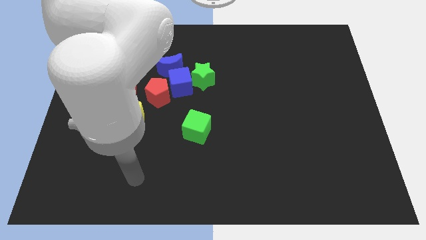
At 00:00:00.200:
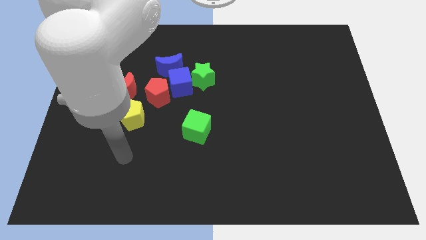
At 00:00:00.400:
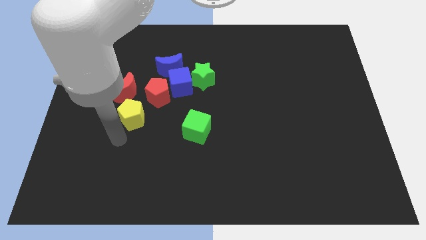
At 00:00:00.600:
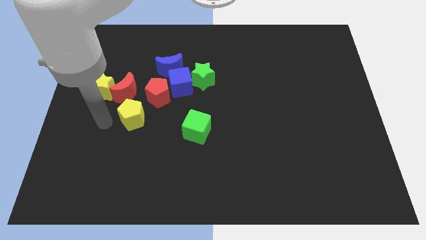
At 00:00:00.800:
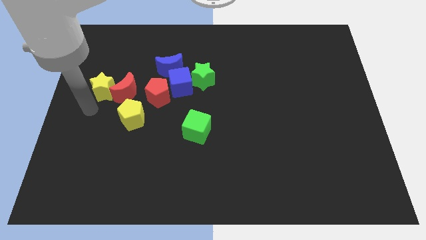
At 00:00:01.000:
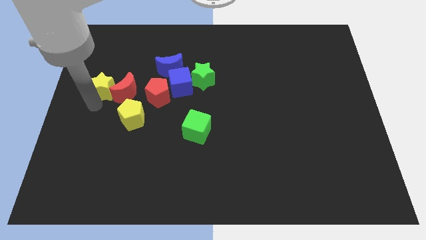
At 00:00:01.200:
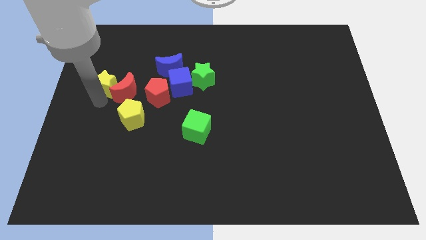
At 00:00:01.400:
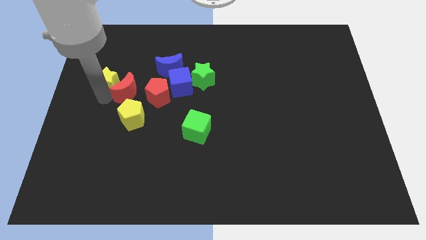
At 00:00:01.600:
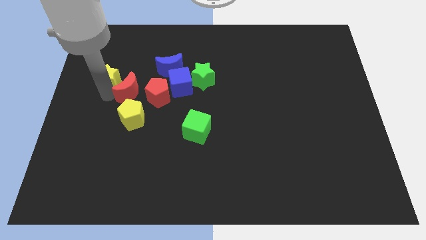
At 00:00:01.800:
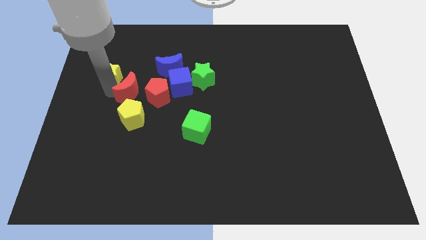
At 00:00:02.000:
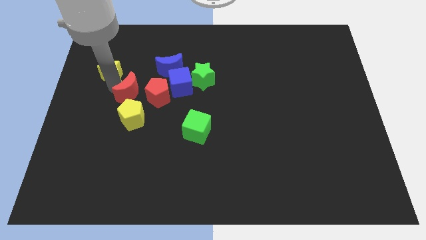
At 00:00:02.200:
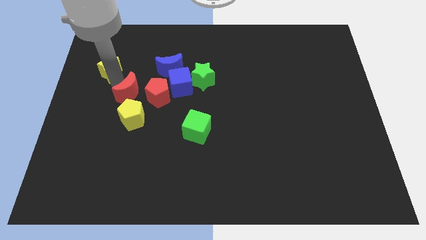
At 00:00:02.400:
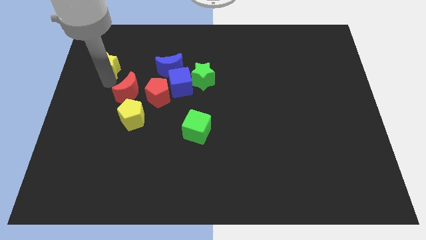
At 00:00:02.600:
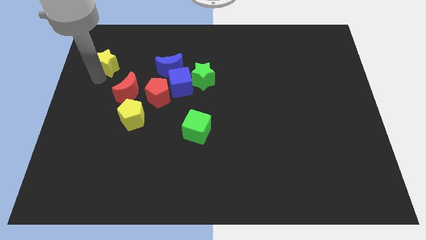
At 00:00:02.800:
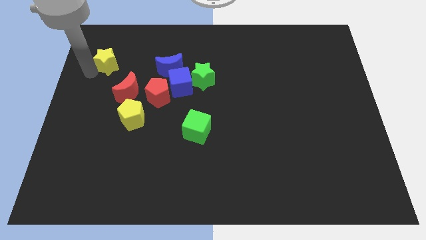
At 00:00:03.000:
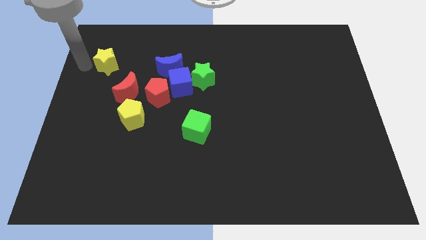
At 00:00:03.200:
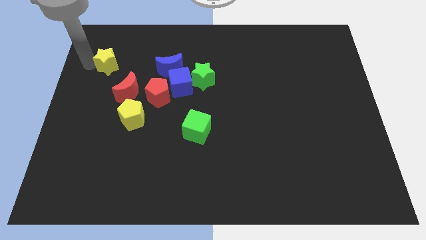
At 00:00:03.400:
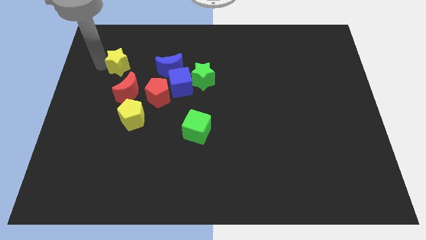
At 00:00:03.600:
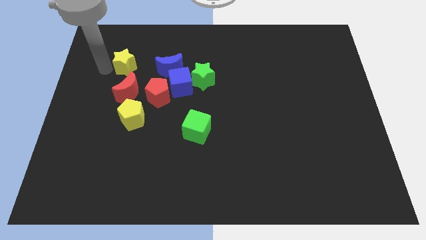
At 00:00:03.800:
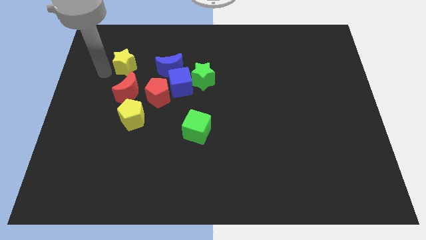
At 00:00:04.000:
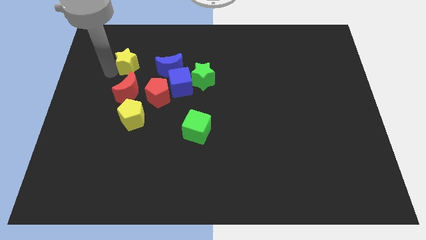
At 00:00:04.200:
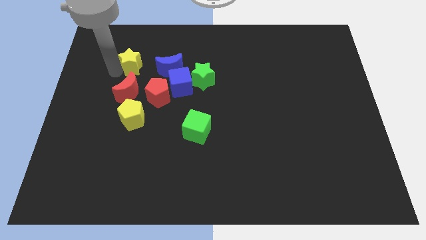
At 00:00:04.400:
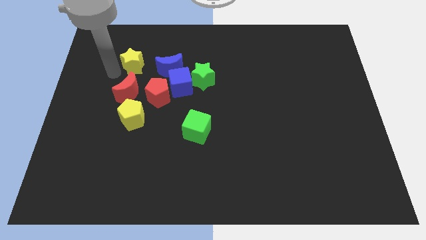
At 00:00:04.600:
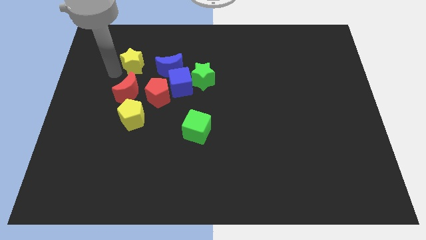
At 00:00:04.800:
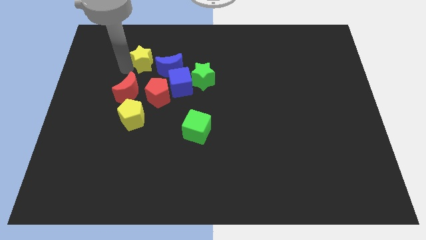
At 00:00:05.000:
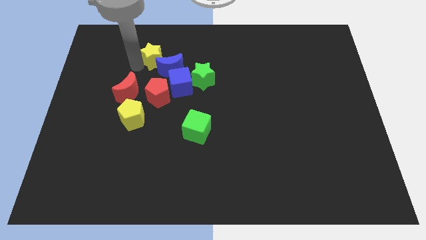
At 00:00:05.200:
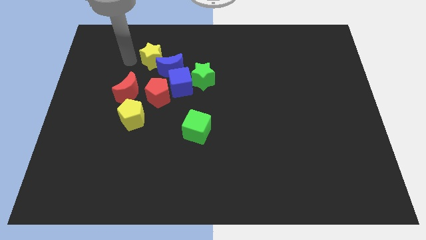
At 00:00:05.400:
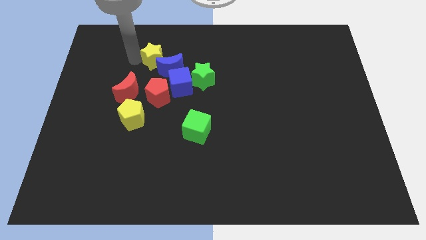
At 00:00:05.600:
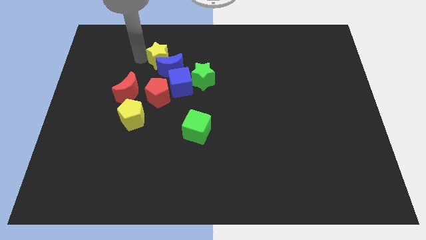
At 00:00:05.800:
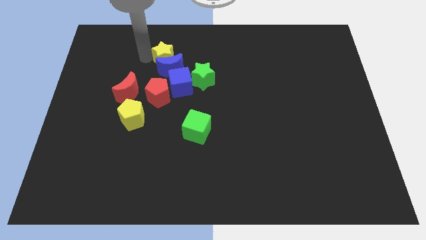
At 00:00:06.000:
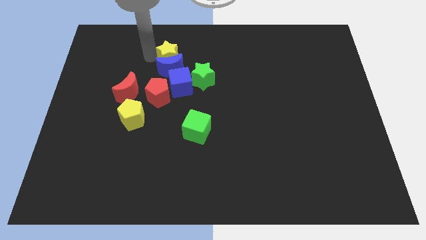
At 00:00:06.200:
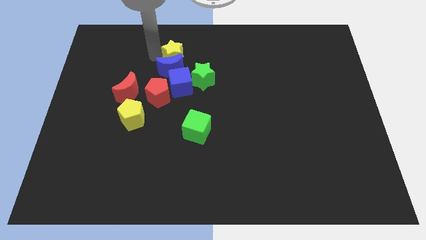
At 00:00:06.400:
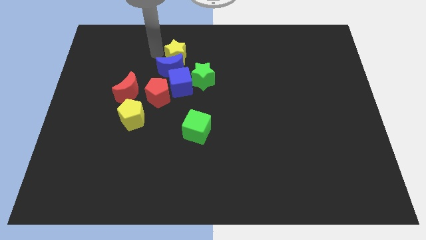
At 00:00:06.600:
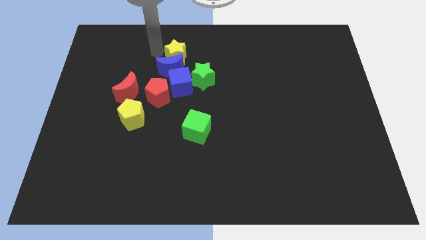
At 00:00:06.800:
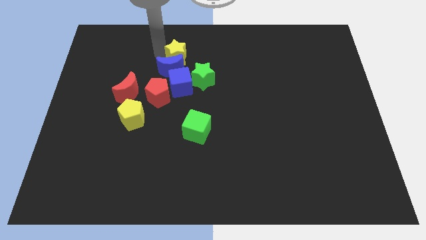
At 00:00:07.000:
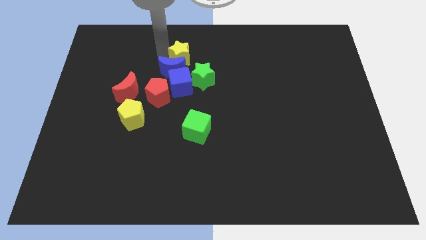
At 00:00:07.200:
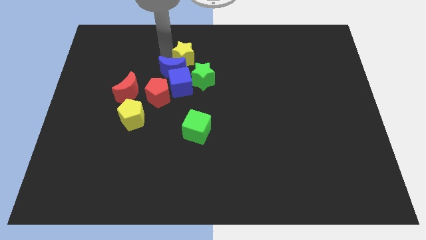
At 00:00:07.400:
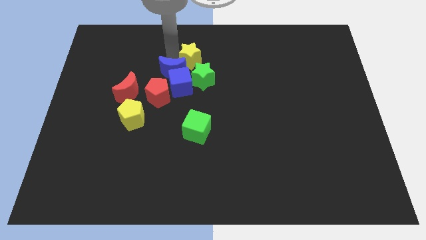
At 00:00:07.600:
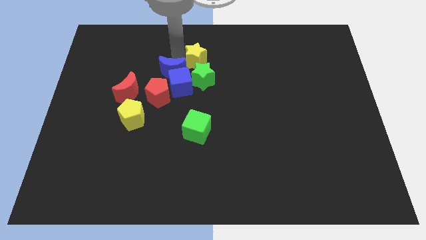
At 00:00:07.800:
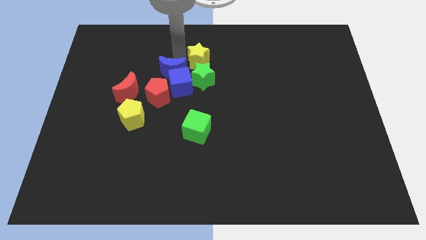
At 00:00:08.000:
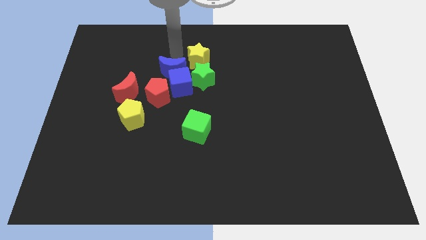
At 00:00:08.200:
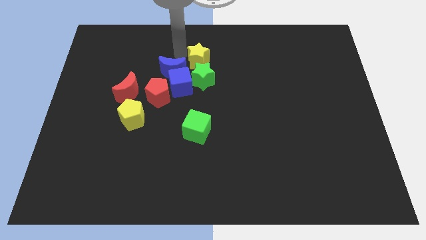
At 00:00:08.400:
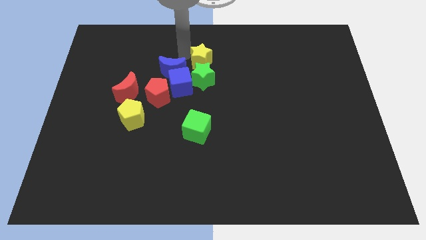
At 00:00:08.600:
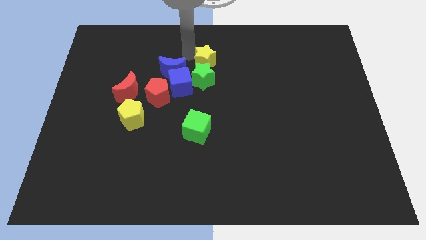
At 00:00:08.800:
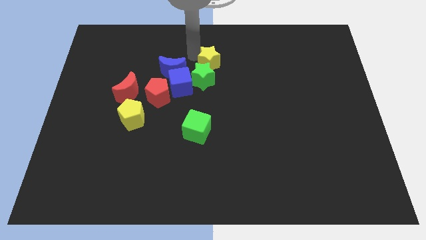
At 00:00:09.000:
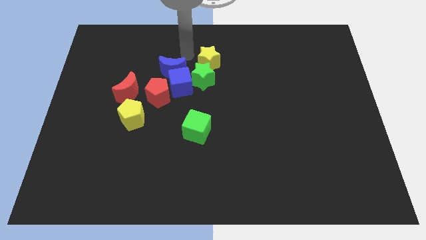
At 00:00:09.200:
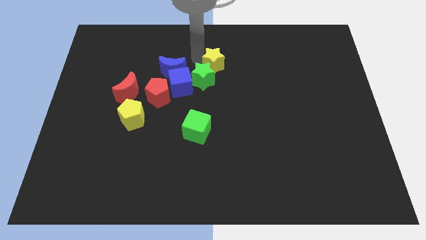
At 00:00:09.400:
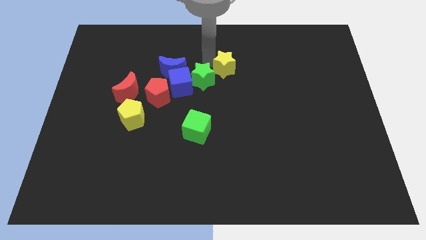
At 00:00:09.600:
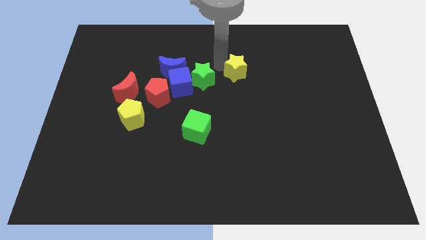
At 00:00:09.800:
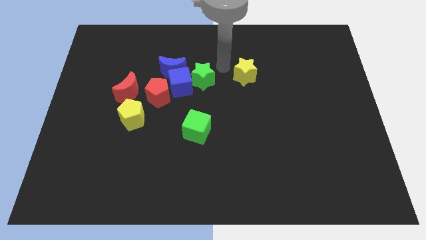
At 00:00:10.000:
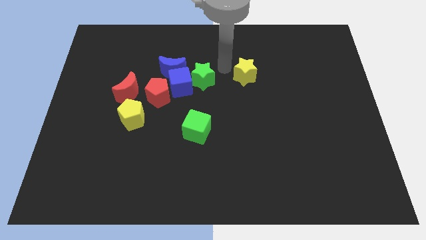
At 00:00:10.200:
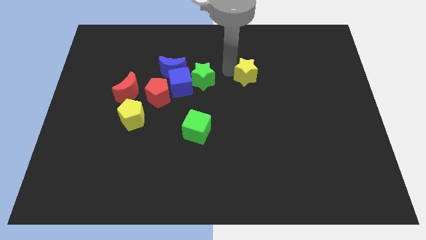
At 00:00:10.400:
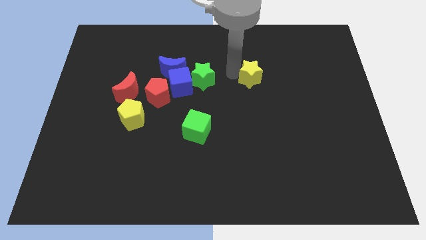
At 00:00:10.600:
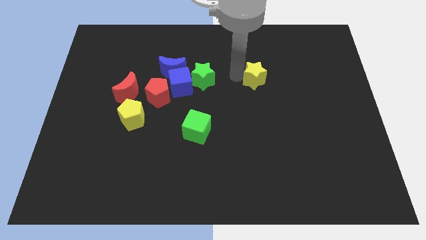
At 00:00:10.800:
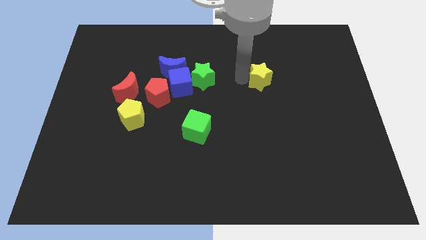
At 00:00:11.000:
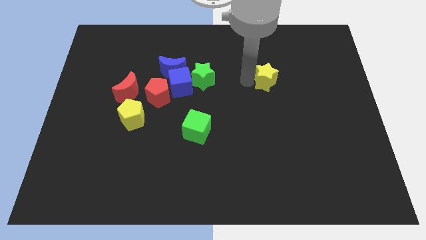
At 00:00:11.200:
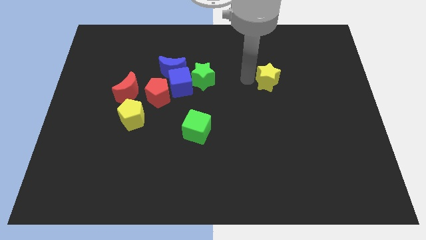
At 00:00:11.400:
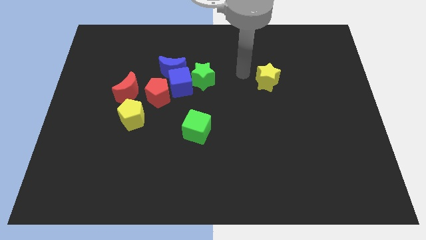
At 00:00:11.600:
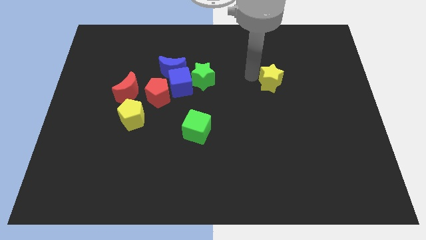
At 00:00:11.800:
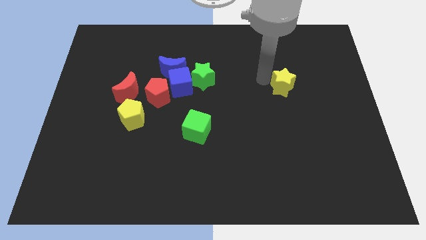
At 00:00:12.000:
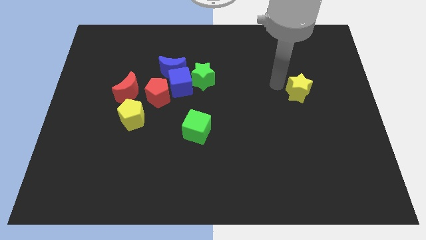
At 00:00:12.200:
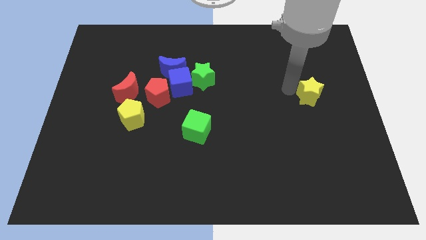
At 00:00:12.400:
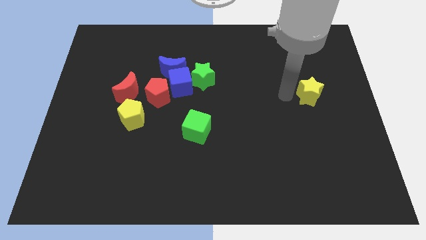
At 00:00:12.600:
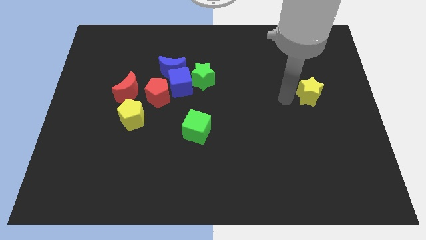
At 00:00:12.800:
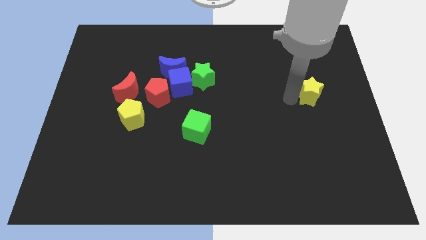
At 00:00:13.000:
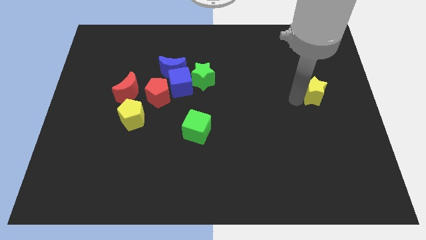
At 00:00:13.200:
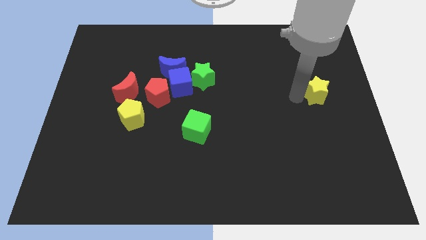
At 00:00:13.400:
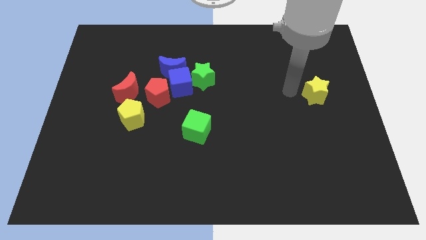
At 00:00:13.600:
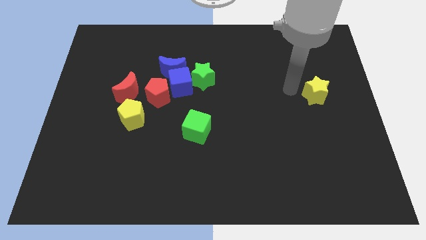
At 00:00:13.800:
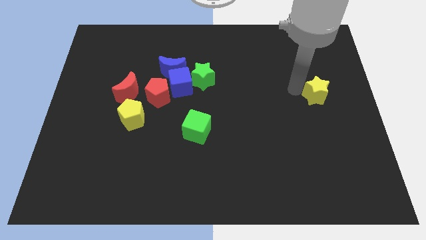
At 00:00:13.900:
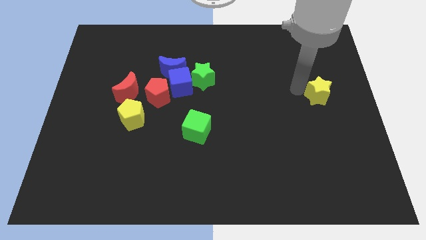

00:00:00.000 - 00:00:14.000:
put the yellow star to the right side
